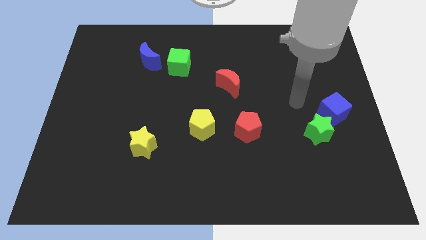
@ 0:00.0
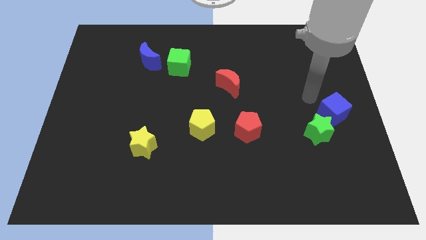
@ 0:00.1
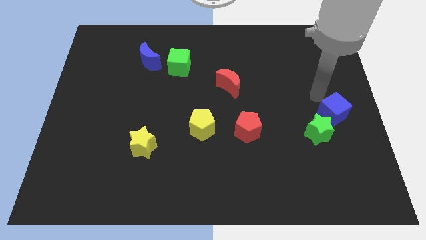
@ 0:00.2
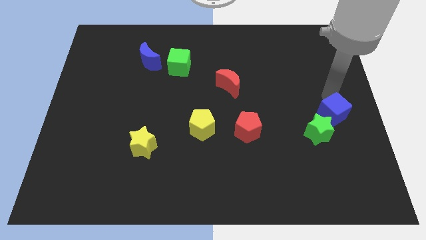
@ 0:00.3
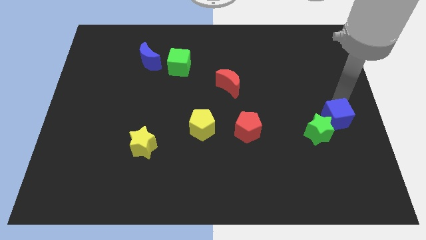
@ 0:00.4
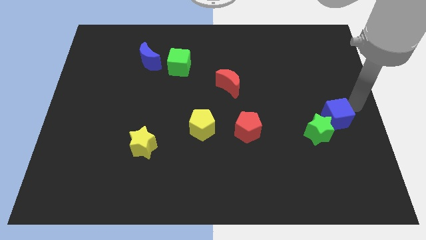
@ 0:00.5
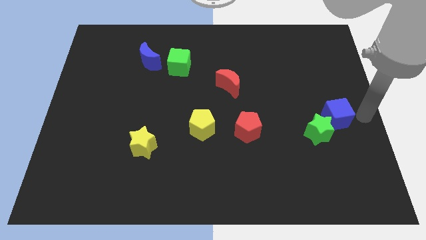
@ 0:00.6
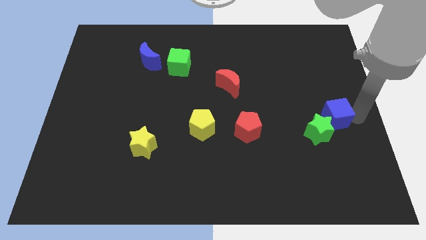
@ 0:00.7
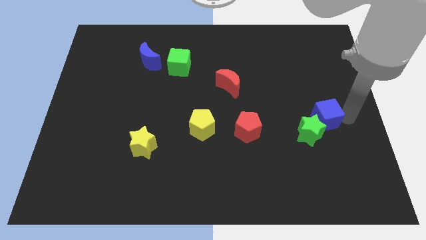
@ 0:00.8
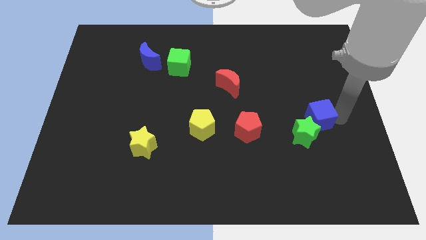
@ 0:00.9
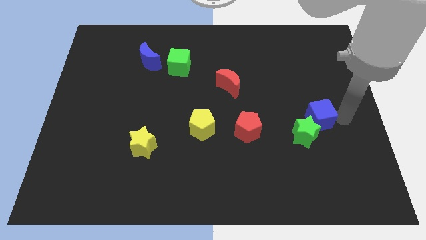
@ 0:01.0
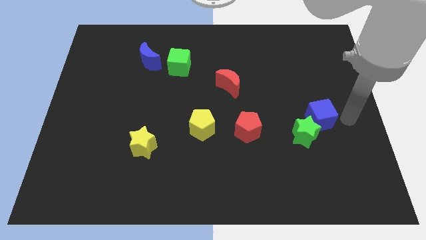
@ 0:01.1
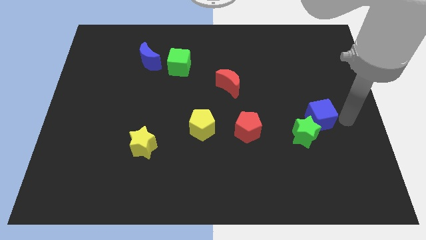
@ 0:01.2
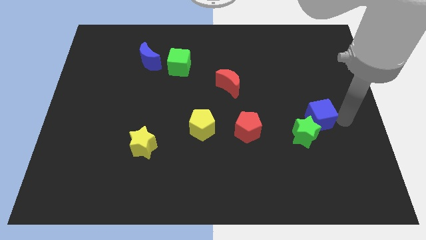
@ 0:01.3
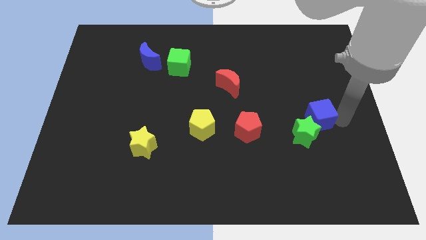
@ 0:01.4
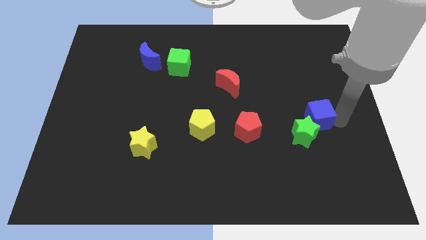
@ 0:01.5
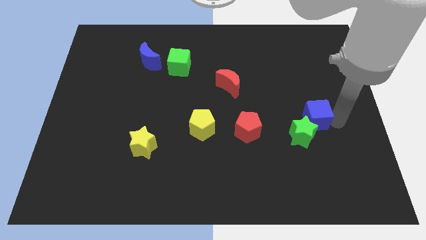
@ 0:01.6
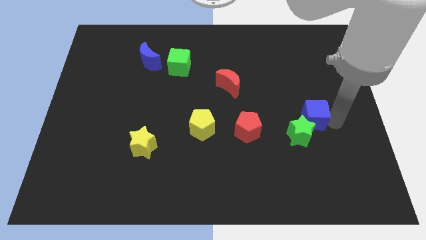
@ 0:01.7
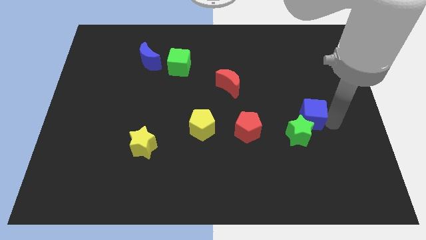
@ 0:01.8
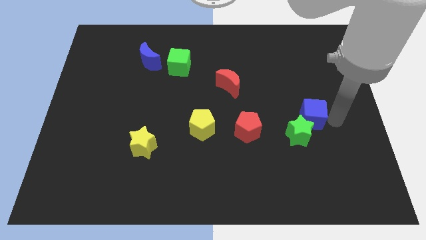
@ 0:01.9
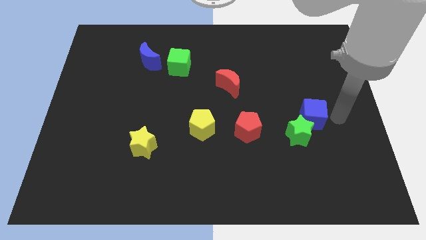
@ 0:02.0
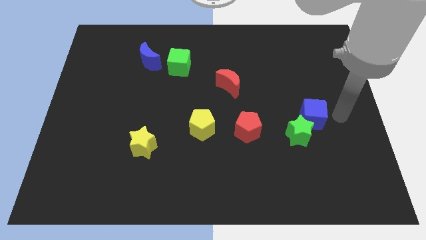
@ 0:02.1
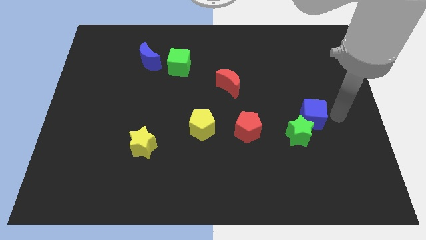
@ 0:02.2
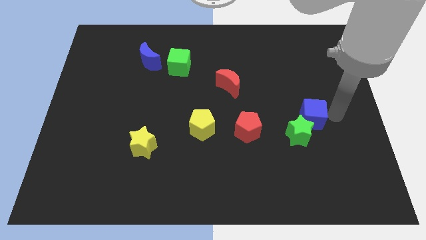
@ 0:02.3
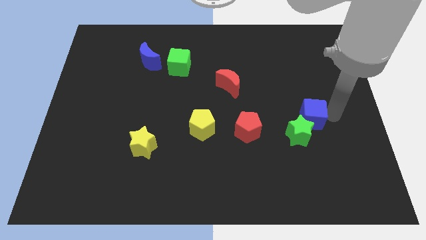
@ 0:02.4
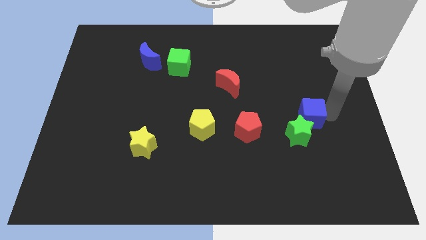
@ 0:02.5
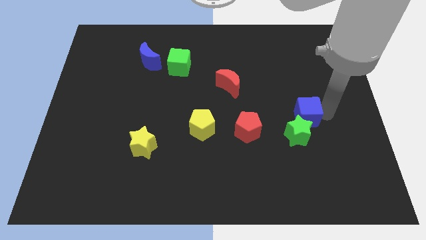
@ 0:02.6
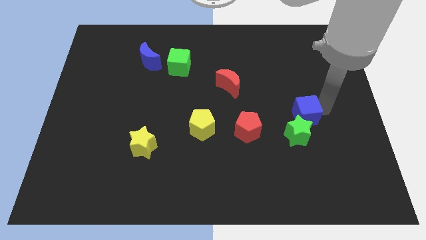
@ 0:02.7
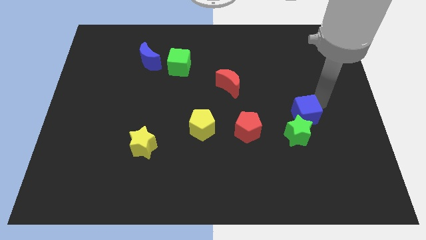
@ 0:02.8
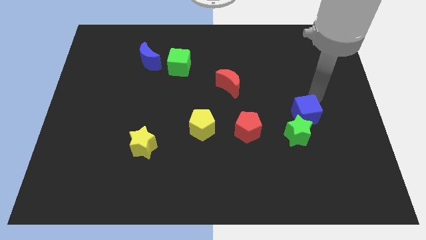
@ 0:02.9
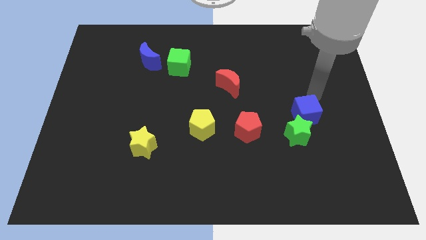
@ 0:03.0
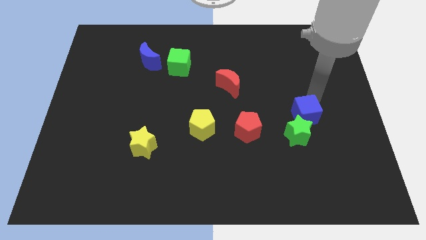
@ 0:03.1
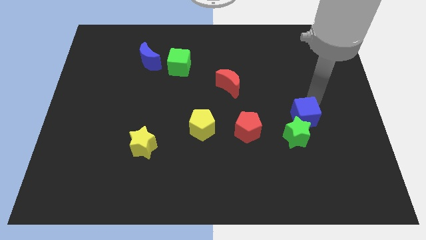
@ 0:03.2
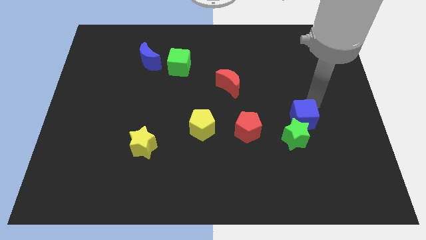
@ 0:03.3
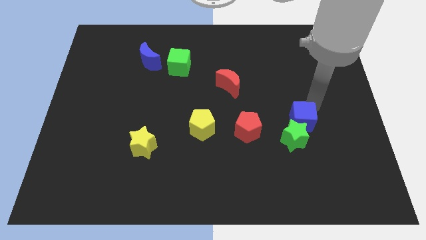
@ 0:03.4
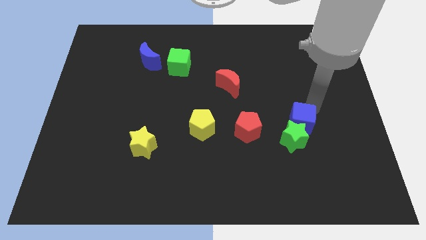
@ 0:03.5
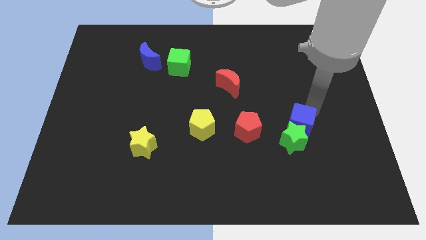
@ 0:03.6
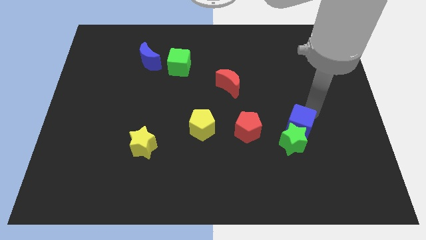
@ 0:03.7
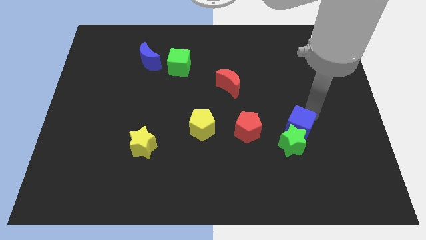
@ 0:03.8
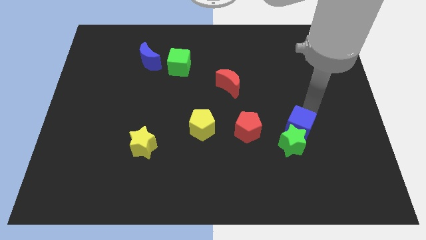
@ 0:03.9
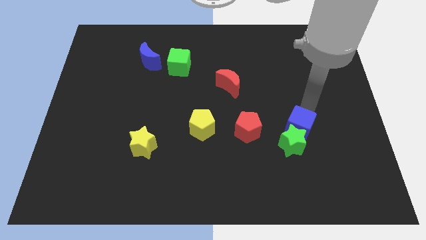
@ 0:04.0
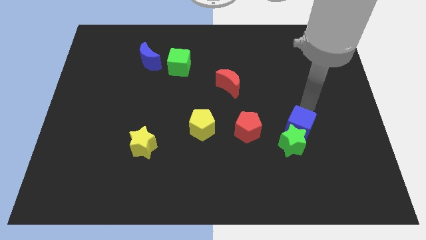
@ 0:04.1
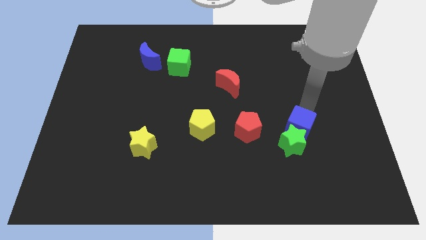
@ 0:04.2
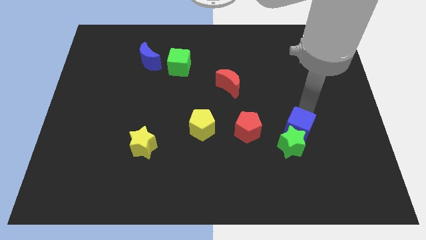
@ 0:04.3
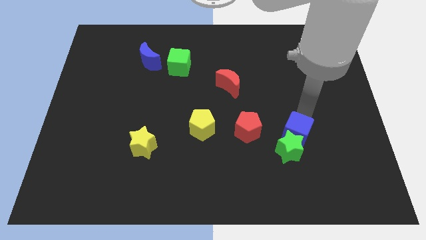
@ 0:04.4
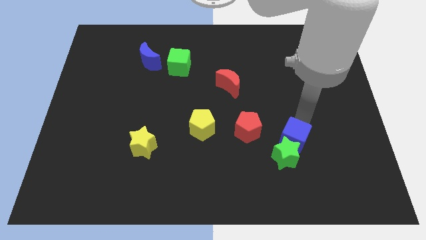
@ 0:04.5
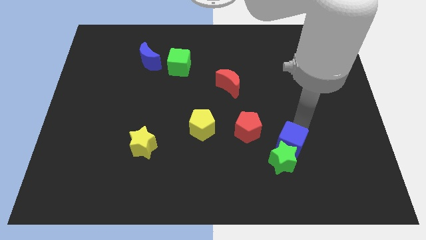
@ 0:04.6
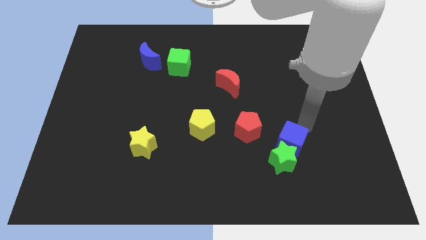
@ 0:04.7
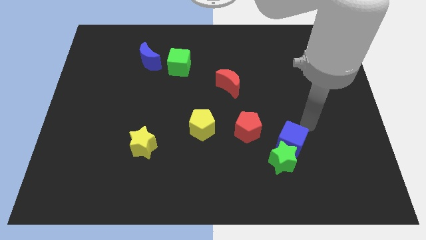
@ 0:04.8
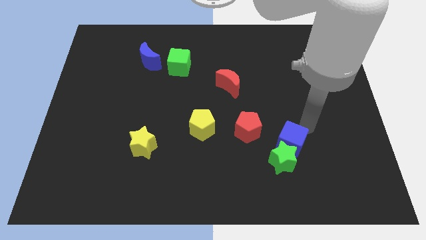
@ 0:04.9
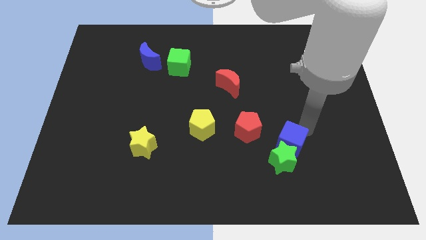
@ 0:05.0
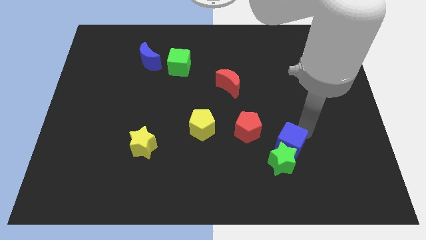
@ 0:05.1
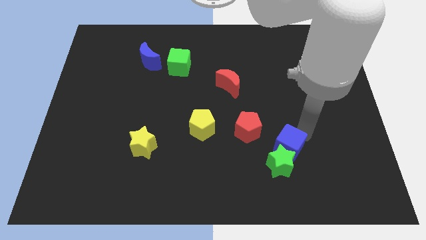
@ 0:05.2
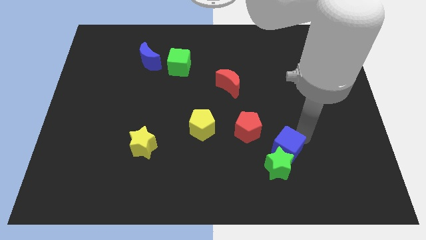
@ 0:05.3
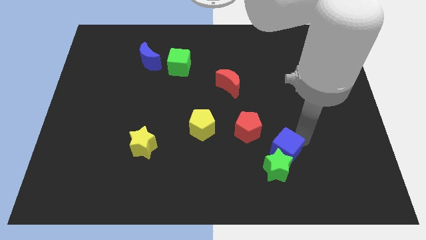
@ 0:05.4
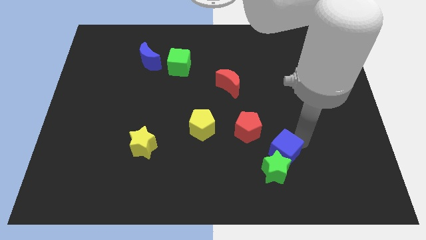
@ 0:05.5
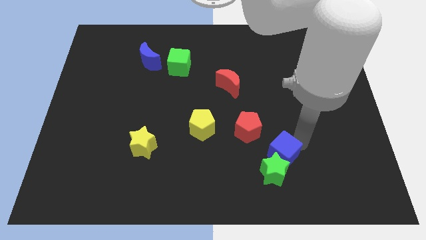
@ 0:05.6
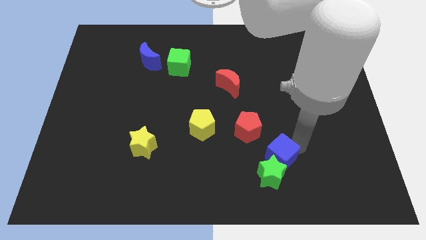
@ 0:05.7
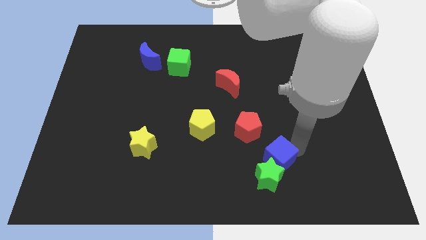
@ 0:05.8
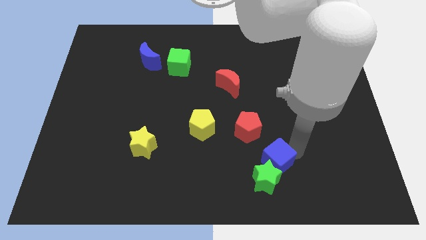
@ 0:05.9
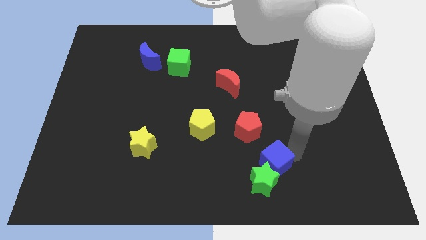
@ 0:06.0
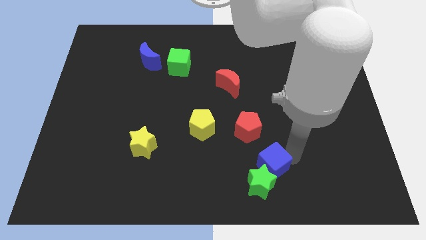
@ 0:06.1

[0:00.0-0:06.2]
put the blue cube to the bottom of the red pentagon

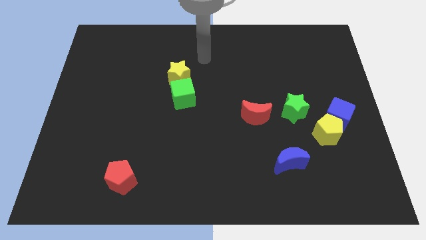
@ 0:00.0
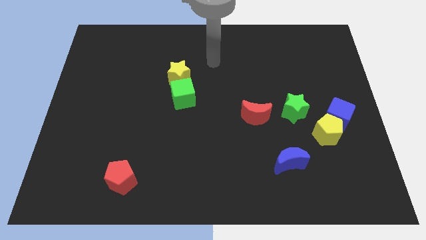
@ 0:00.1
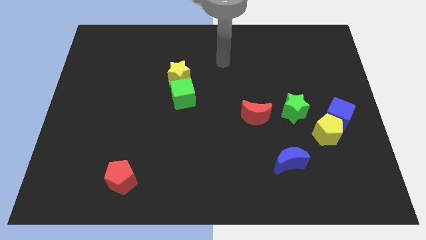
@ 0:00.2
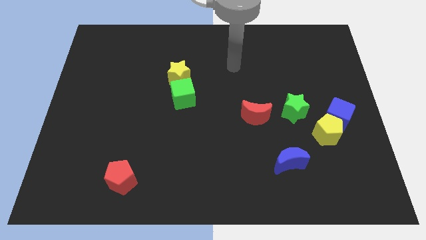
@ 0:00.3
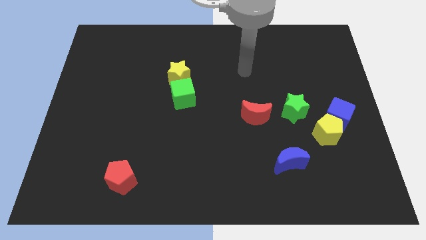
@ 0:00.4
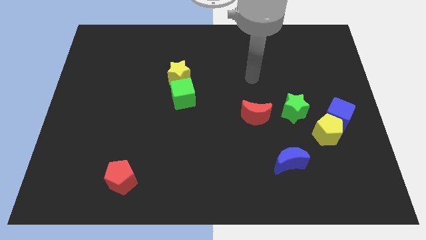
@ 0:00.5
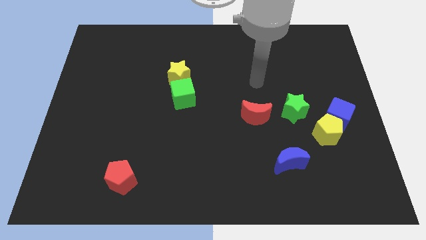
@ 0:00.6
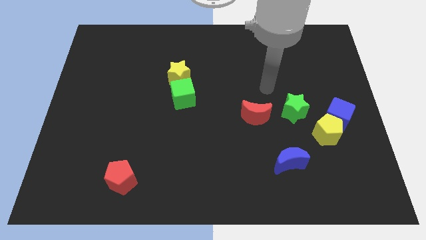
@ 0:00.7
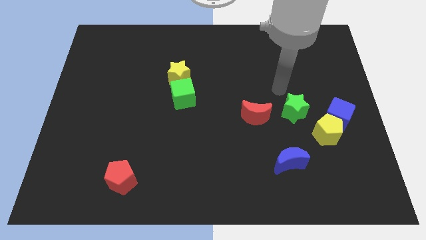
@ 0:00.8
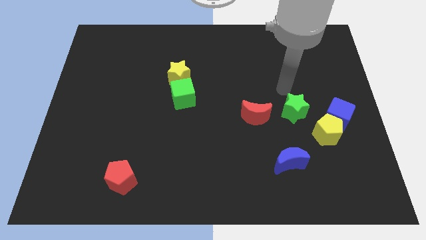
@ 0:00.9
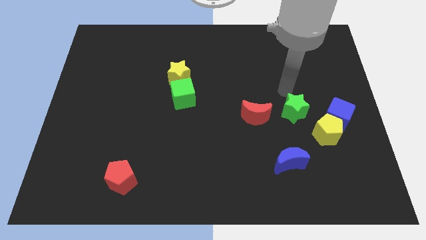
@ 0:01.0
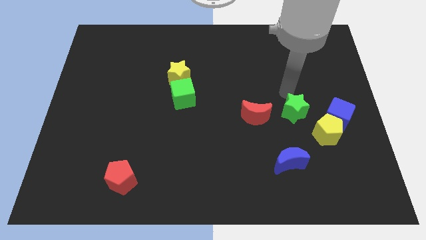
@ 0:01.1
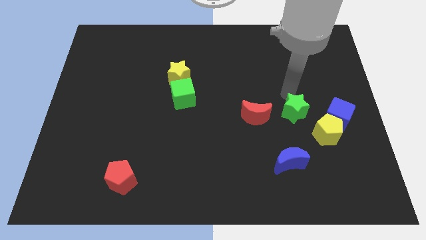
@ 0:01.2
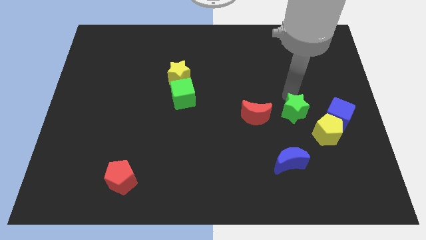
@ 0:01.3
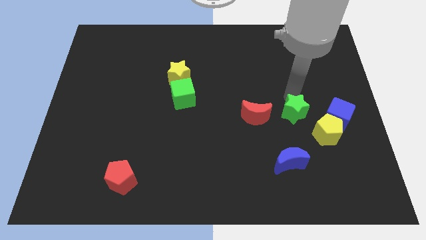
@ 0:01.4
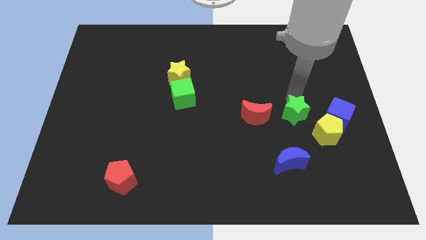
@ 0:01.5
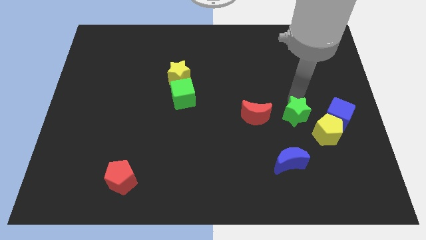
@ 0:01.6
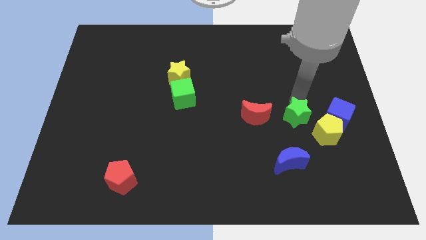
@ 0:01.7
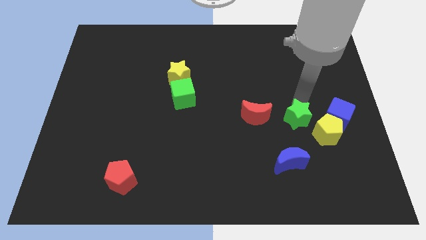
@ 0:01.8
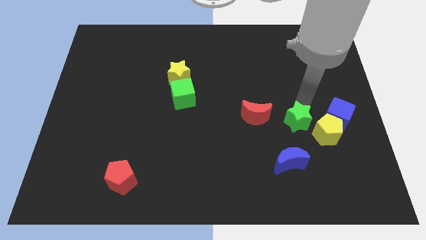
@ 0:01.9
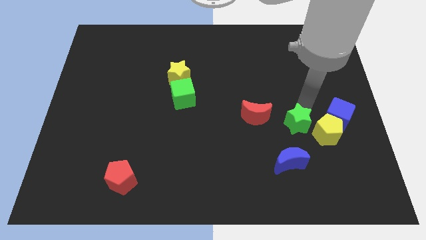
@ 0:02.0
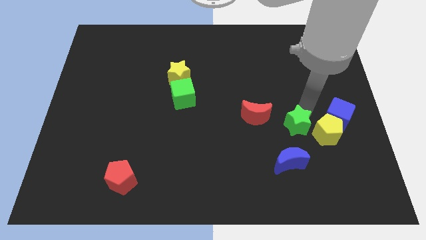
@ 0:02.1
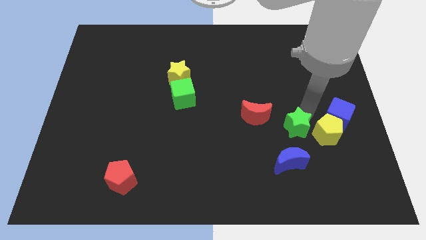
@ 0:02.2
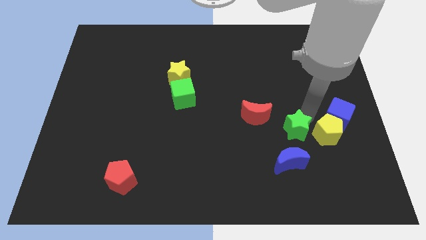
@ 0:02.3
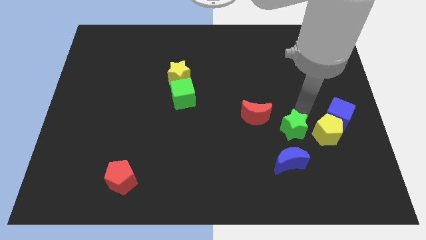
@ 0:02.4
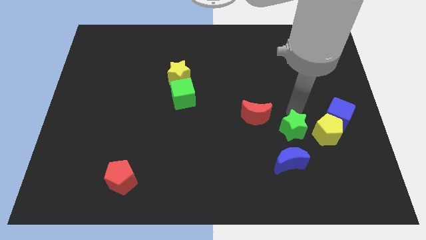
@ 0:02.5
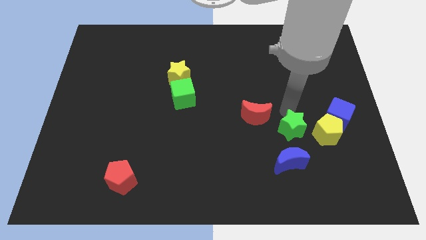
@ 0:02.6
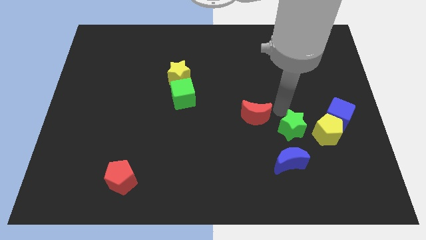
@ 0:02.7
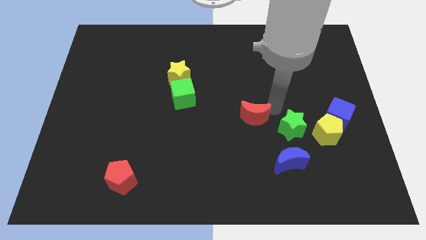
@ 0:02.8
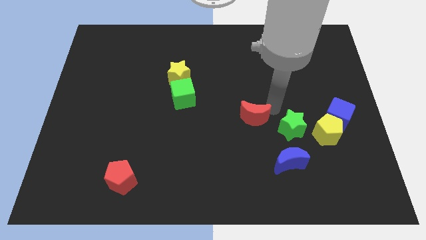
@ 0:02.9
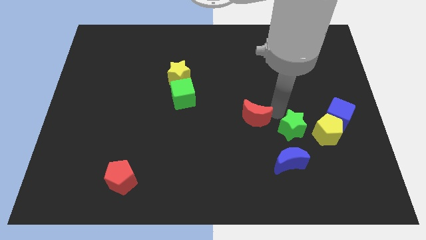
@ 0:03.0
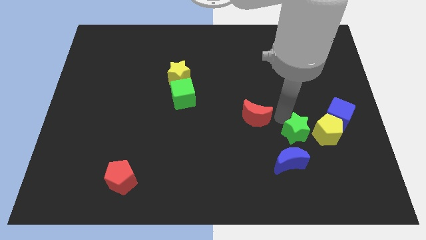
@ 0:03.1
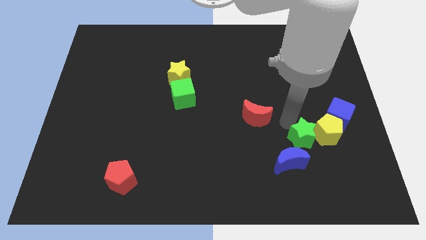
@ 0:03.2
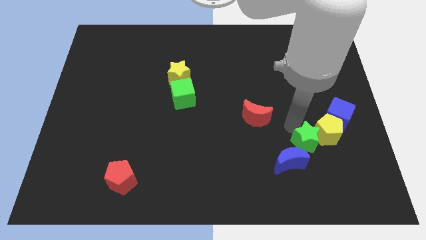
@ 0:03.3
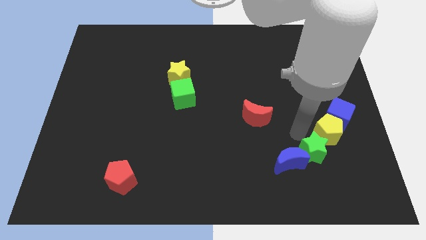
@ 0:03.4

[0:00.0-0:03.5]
put the green star to the right of the blue moon
